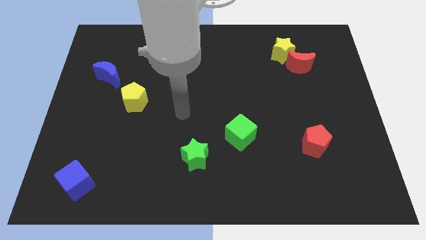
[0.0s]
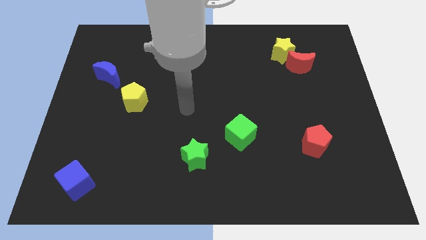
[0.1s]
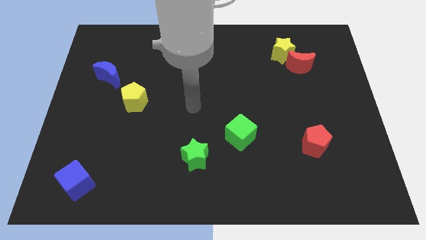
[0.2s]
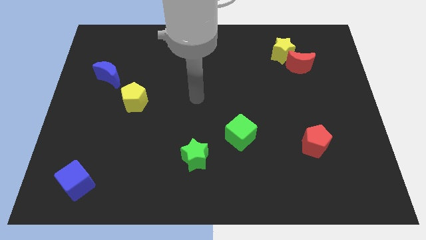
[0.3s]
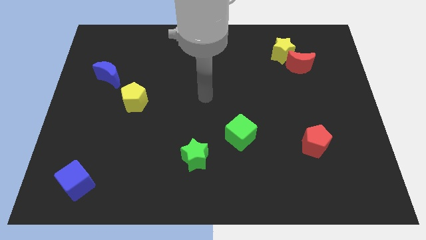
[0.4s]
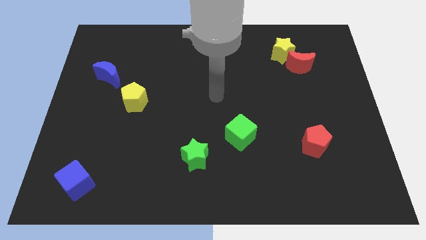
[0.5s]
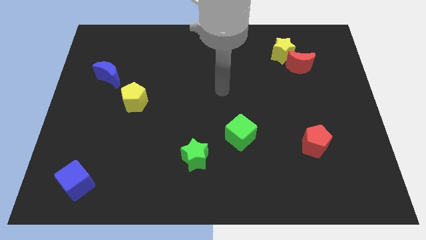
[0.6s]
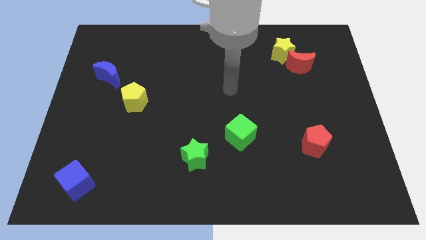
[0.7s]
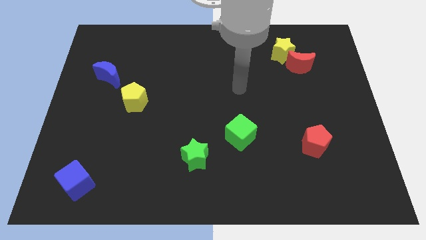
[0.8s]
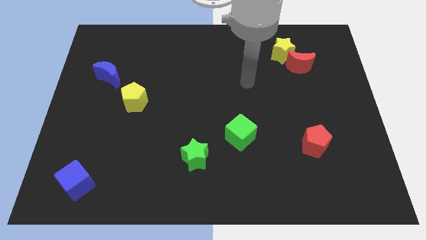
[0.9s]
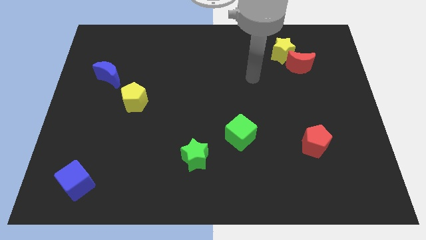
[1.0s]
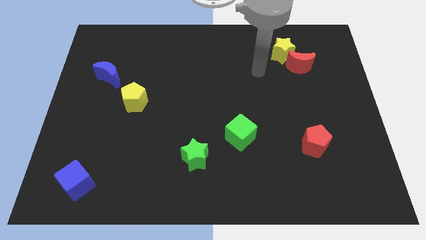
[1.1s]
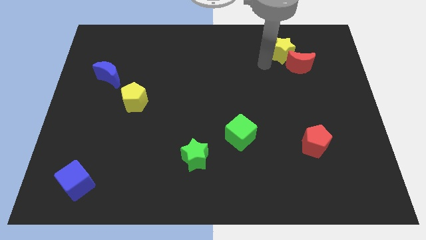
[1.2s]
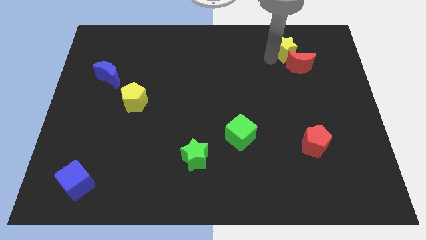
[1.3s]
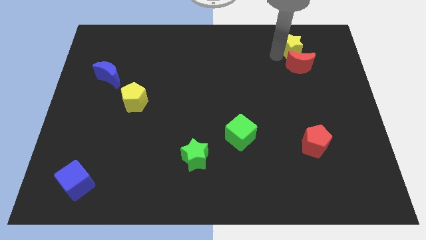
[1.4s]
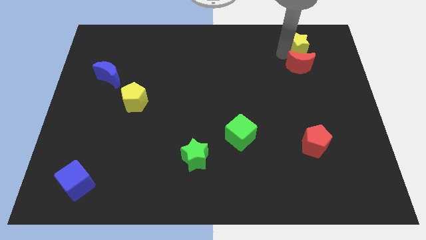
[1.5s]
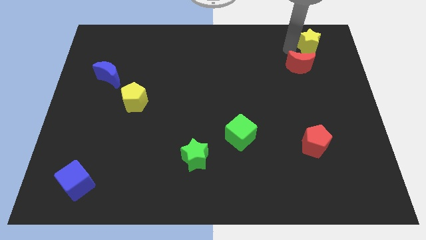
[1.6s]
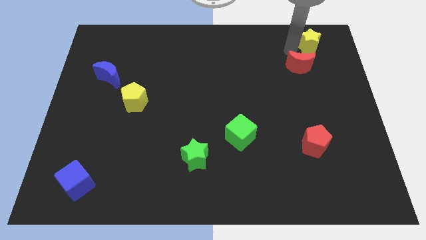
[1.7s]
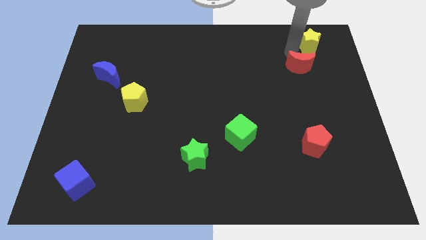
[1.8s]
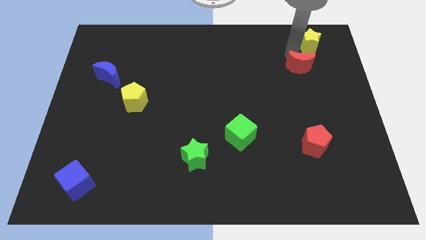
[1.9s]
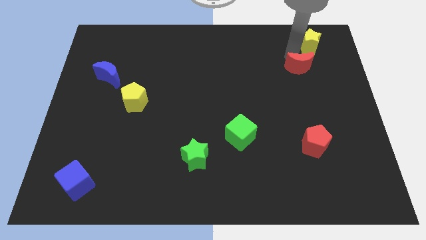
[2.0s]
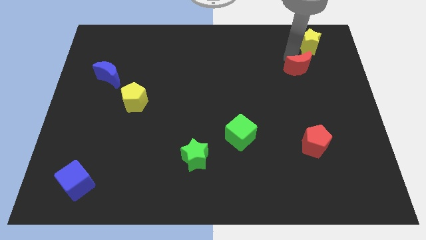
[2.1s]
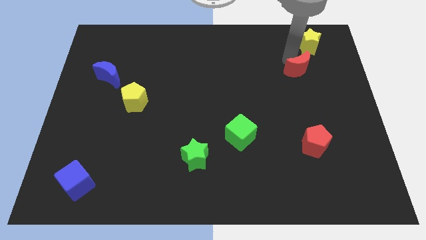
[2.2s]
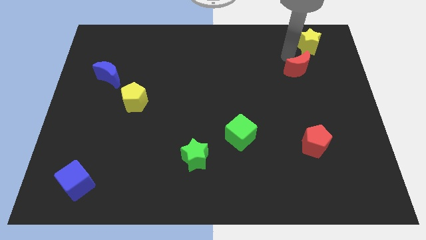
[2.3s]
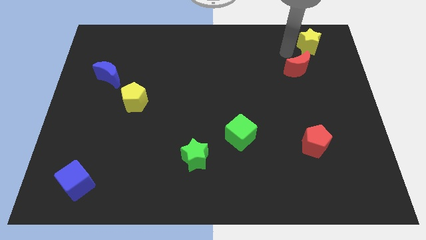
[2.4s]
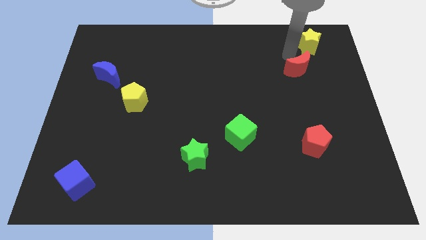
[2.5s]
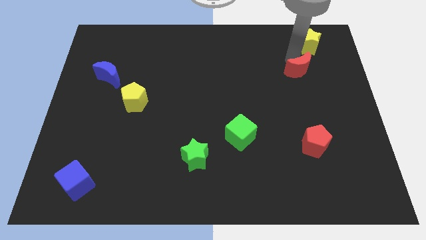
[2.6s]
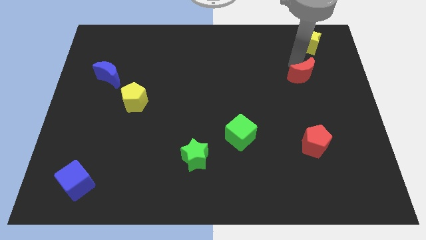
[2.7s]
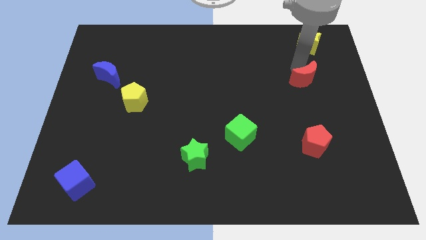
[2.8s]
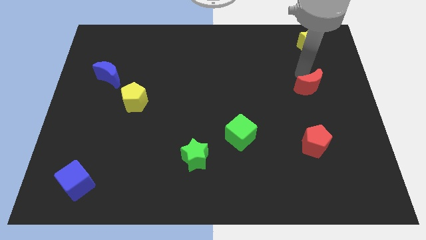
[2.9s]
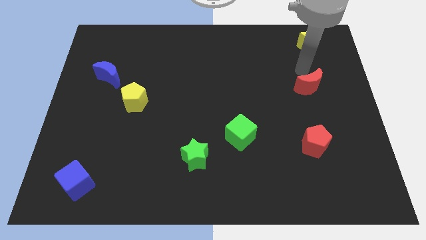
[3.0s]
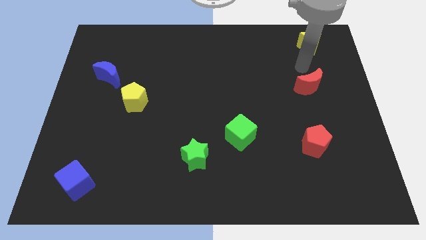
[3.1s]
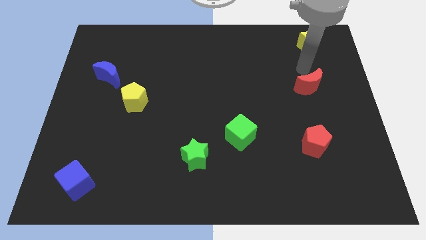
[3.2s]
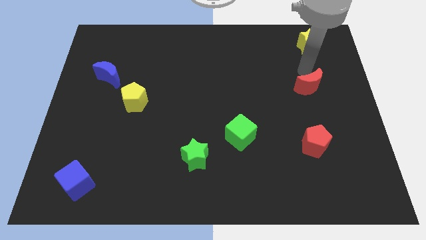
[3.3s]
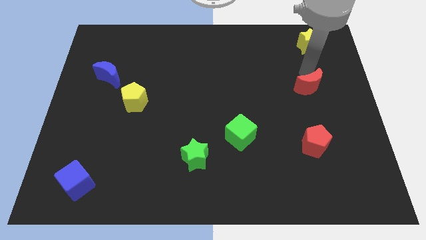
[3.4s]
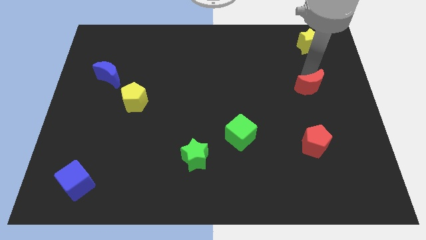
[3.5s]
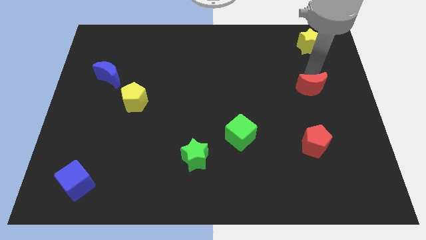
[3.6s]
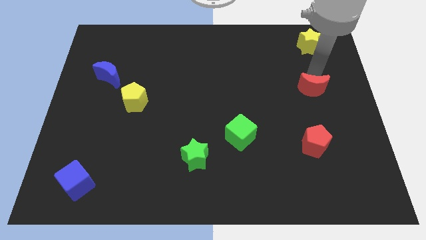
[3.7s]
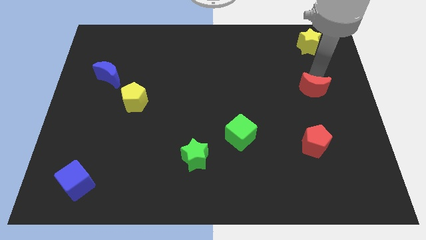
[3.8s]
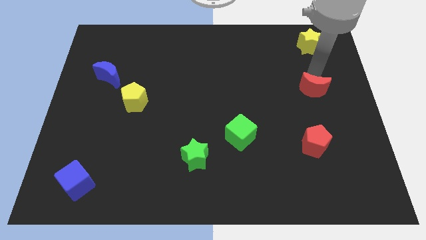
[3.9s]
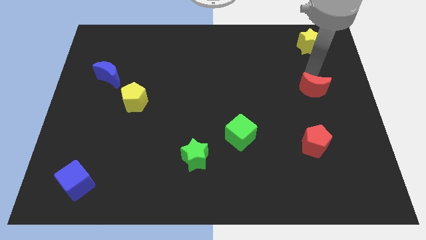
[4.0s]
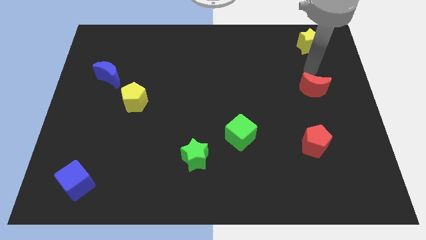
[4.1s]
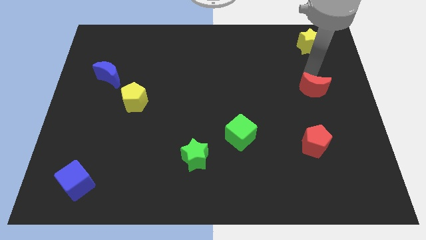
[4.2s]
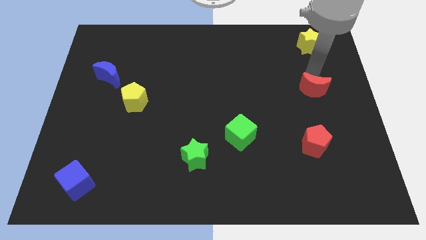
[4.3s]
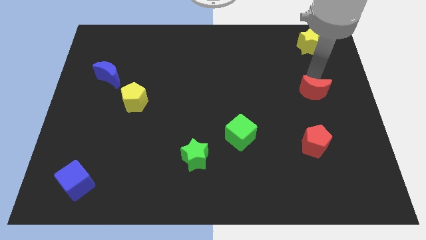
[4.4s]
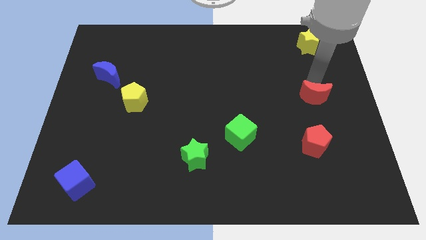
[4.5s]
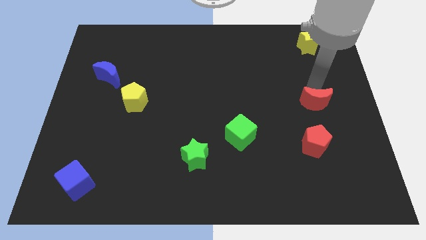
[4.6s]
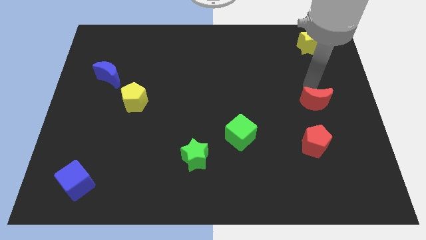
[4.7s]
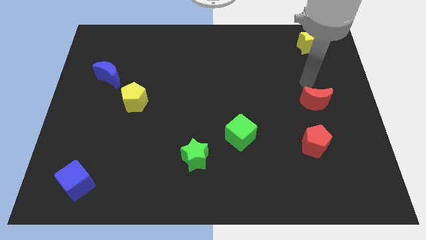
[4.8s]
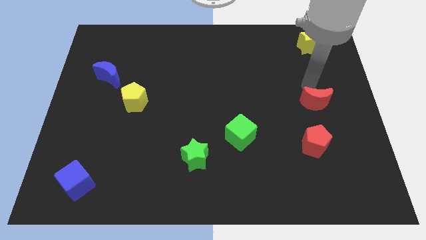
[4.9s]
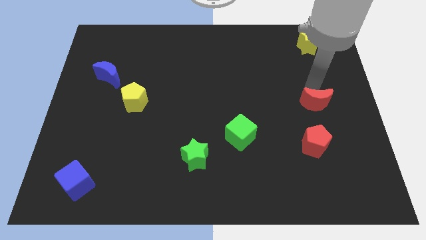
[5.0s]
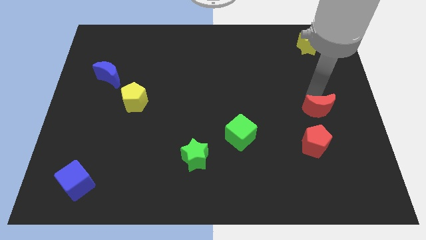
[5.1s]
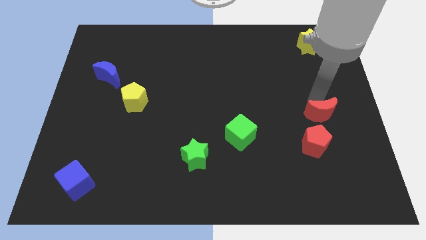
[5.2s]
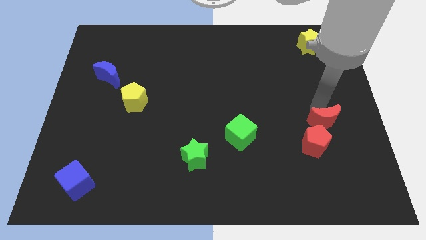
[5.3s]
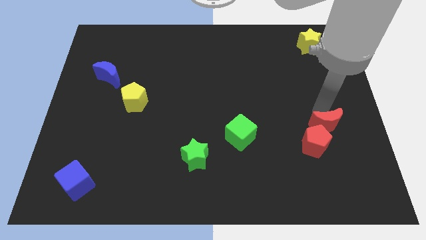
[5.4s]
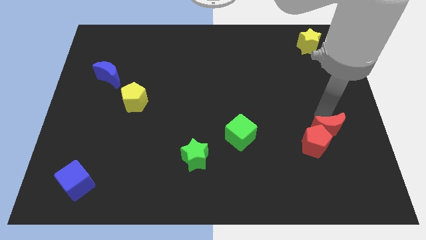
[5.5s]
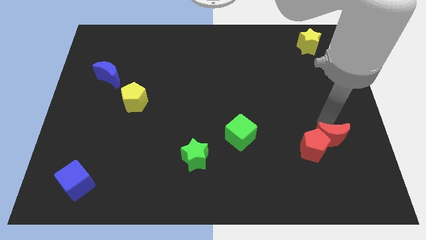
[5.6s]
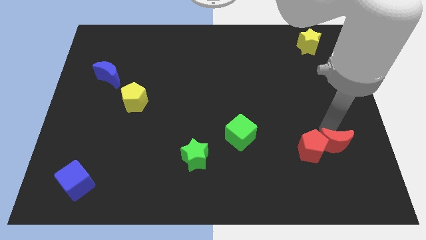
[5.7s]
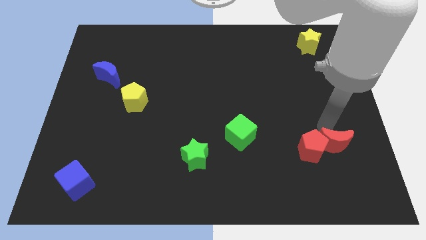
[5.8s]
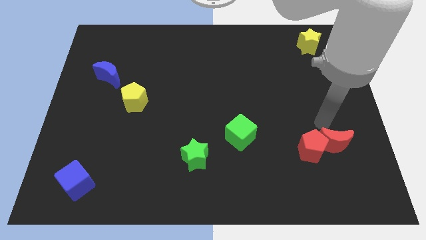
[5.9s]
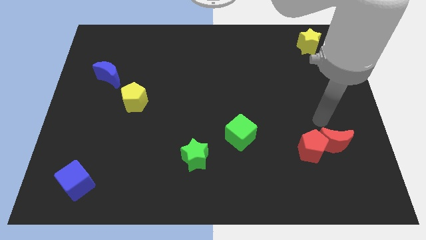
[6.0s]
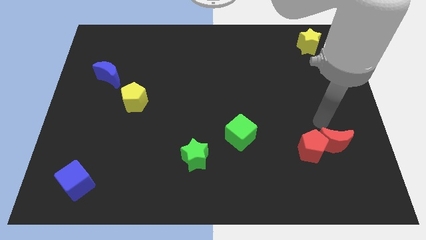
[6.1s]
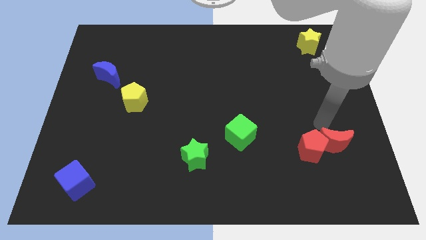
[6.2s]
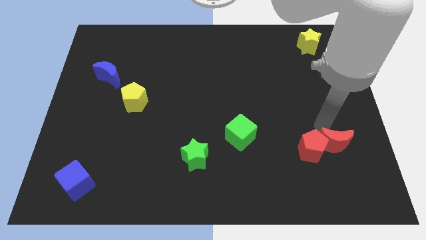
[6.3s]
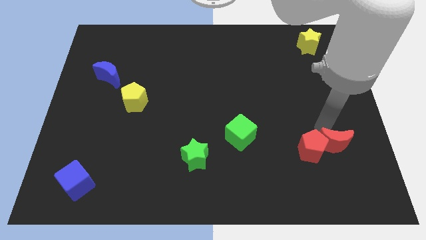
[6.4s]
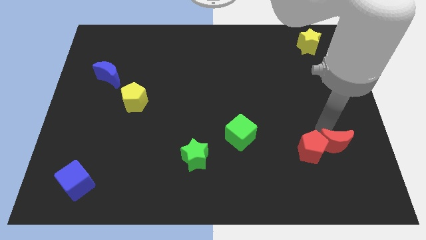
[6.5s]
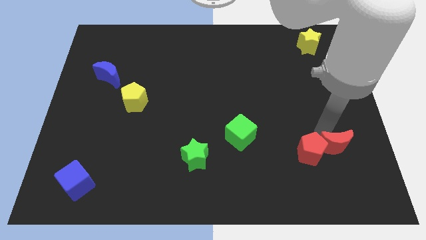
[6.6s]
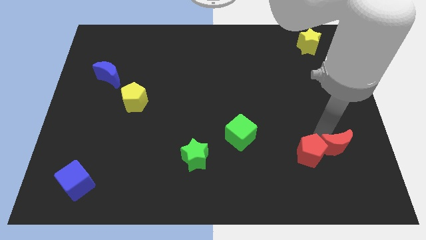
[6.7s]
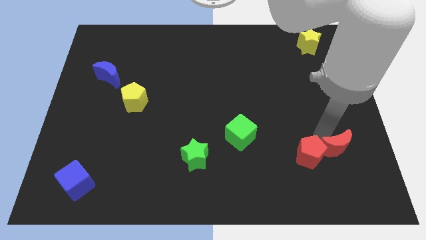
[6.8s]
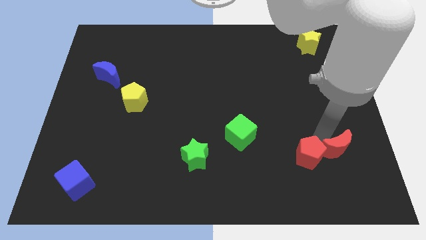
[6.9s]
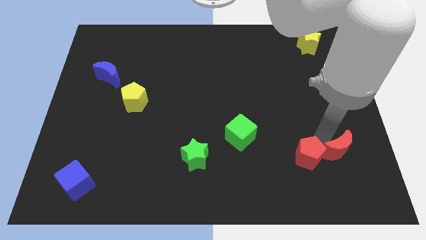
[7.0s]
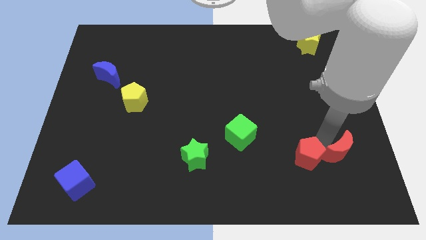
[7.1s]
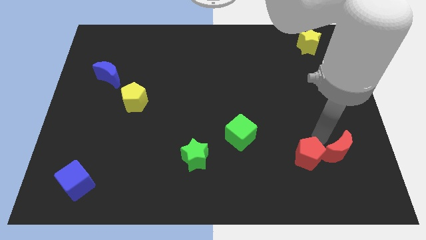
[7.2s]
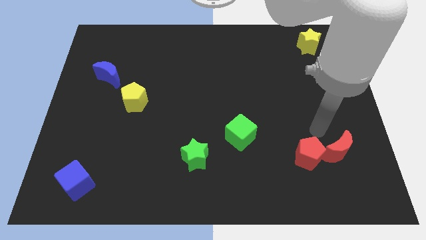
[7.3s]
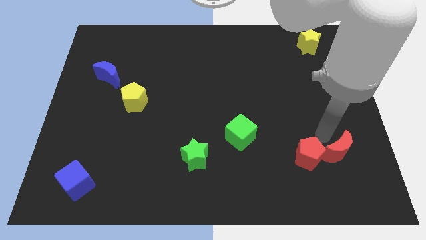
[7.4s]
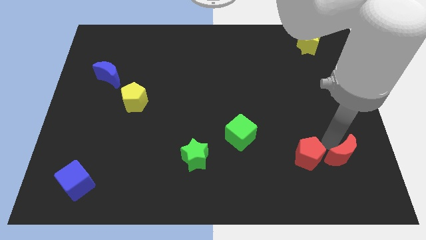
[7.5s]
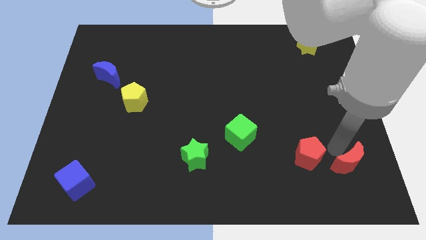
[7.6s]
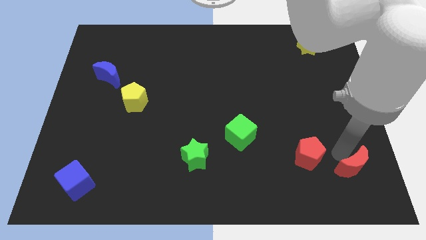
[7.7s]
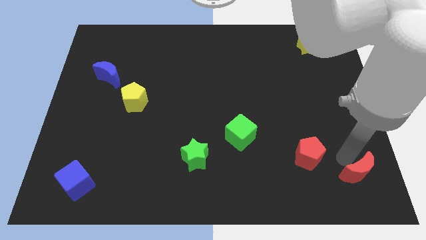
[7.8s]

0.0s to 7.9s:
slide the red moon to the bottom right of the board
